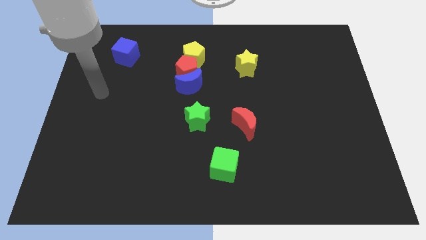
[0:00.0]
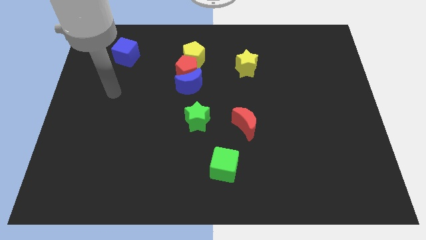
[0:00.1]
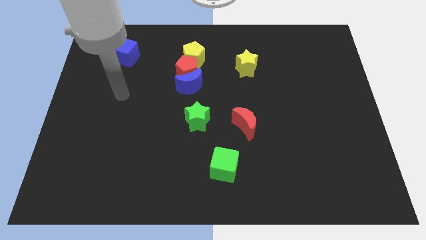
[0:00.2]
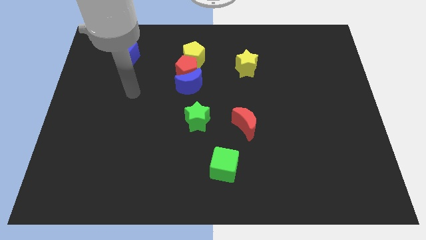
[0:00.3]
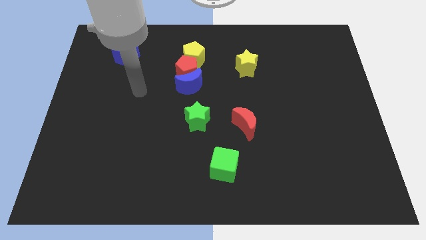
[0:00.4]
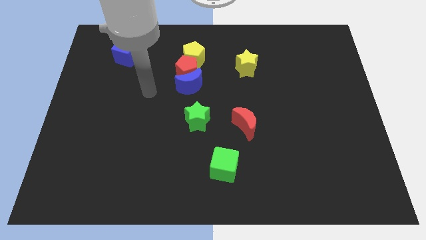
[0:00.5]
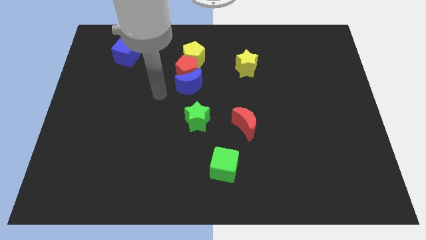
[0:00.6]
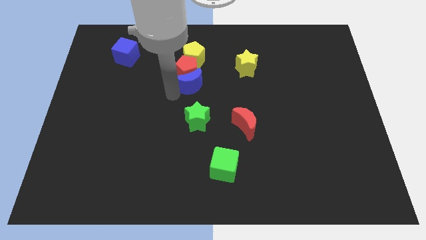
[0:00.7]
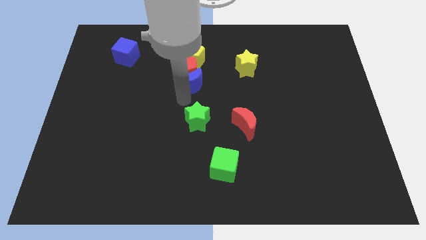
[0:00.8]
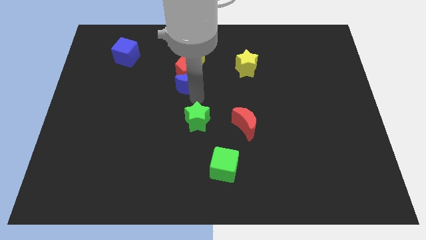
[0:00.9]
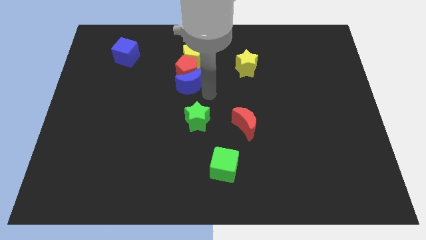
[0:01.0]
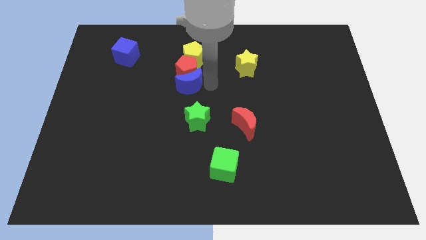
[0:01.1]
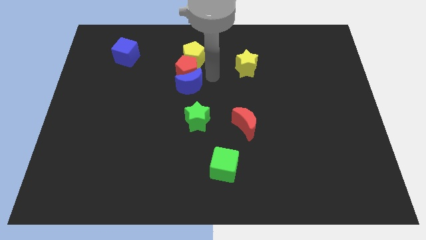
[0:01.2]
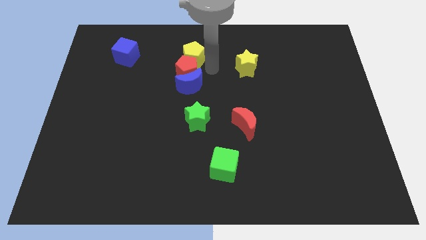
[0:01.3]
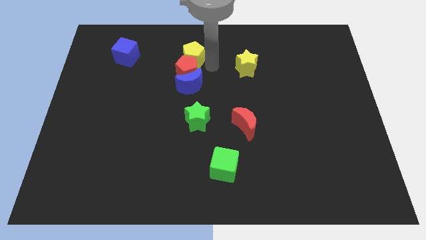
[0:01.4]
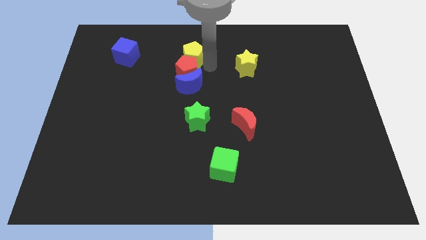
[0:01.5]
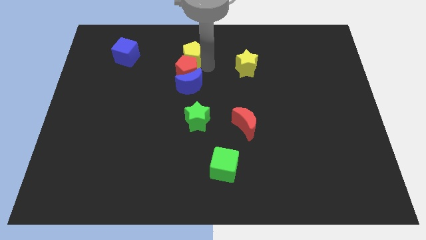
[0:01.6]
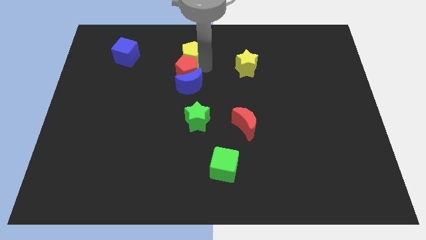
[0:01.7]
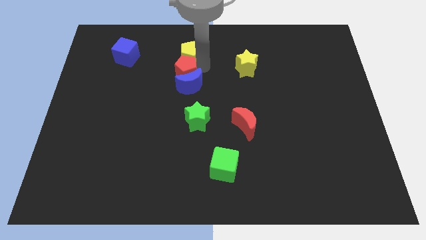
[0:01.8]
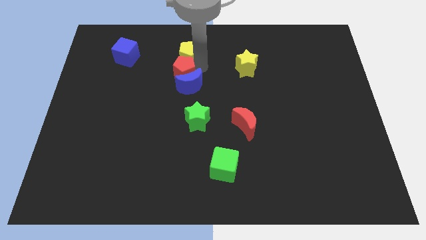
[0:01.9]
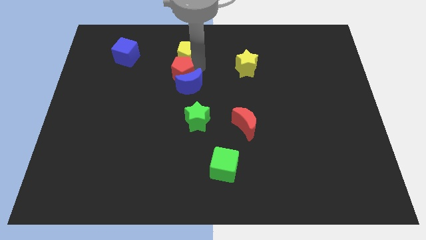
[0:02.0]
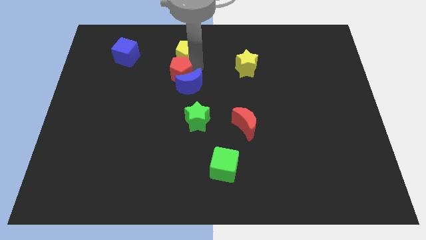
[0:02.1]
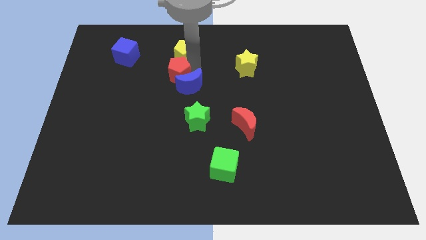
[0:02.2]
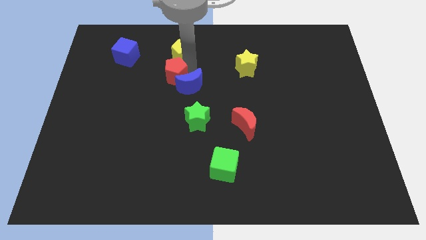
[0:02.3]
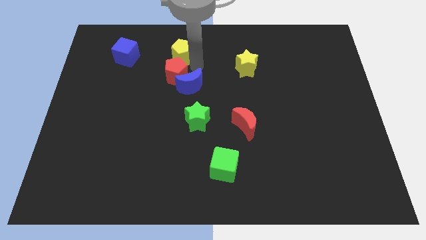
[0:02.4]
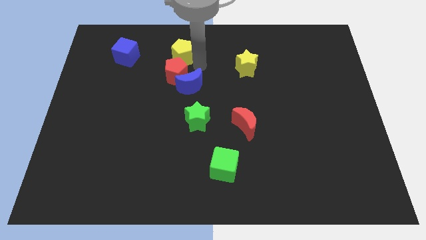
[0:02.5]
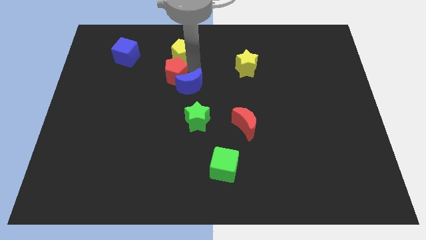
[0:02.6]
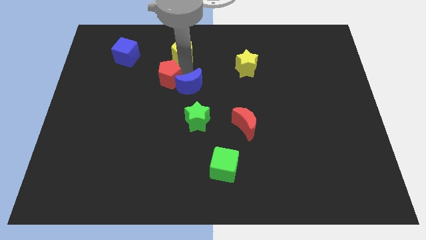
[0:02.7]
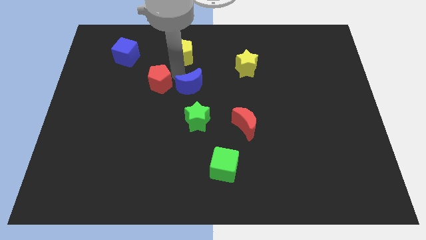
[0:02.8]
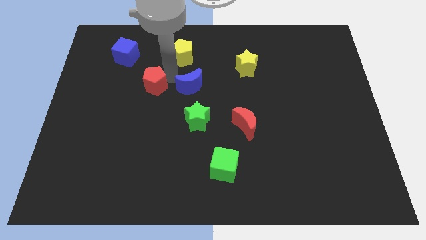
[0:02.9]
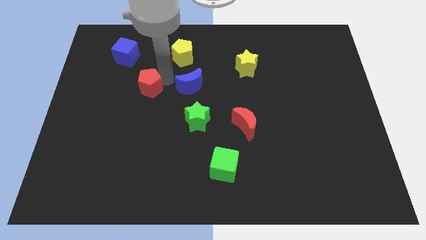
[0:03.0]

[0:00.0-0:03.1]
pull the red pentagon apart from the blue moon and yellow pentagon

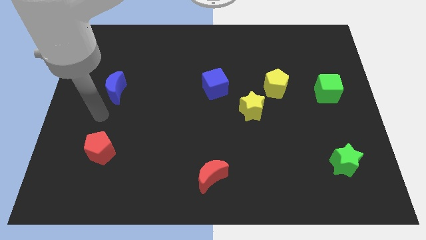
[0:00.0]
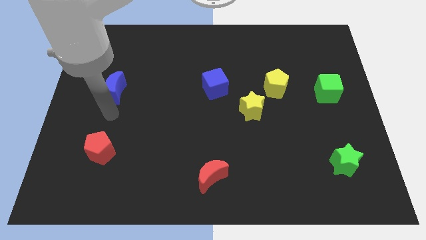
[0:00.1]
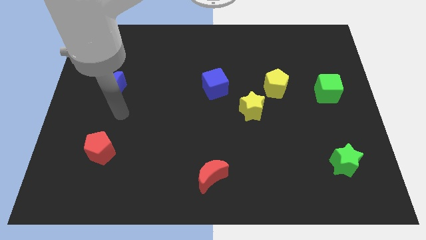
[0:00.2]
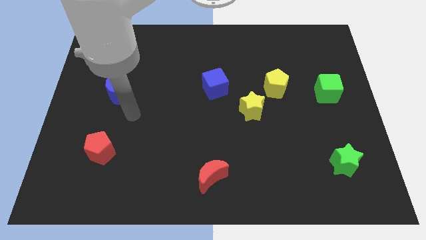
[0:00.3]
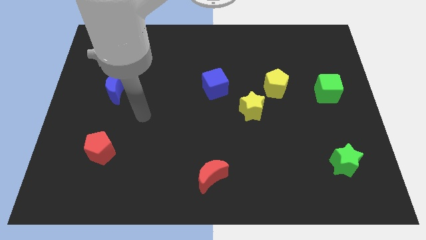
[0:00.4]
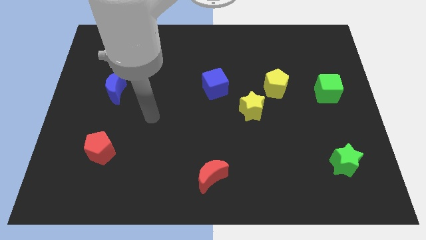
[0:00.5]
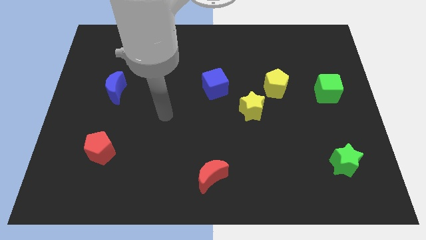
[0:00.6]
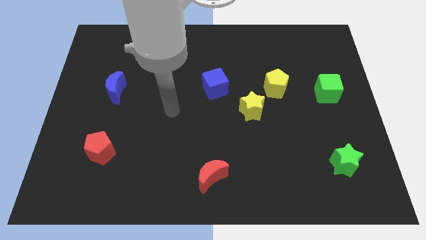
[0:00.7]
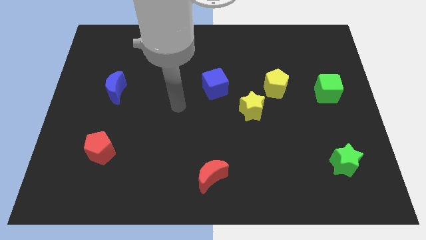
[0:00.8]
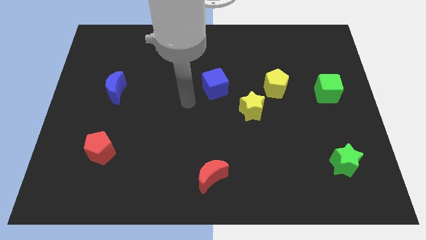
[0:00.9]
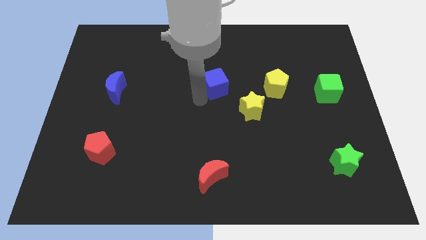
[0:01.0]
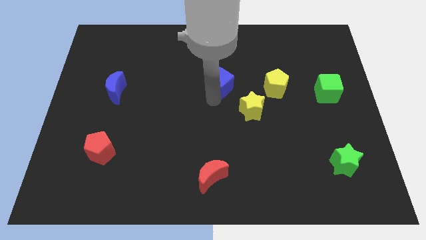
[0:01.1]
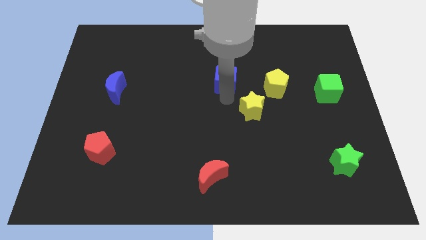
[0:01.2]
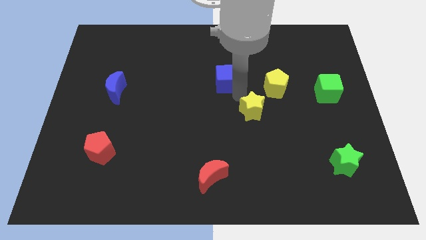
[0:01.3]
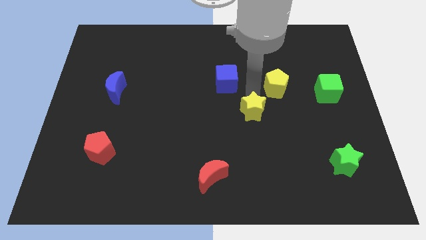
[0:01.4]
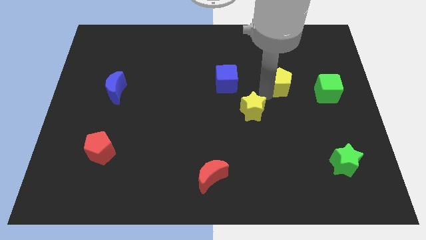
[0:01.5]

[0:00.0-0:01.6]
pull the yellow star apart from the yellow pentagon

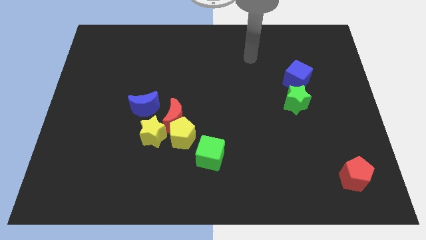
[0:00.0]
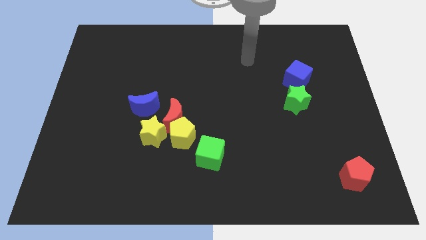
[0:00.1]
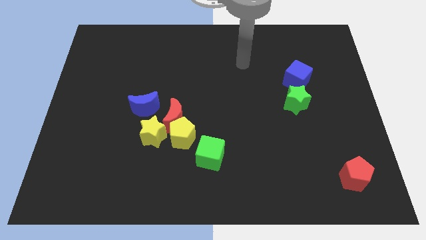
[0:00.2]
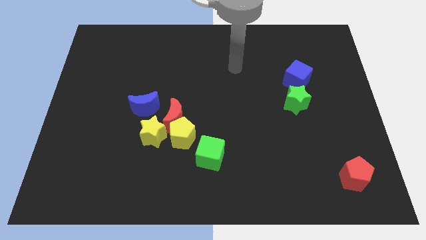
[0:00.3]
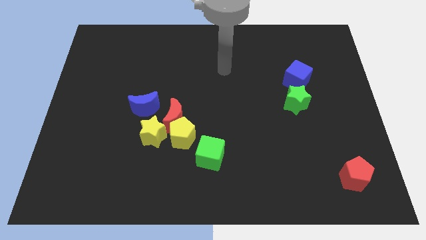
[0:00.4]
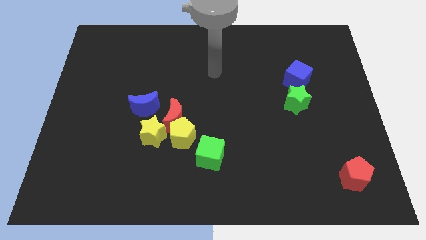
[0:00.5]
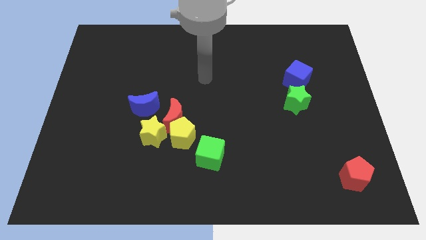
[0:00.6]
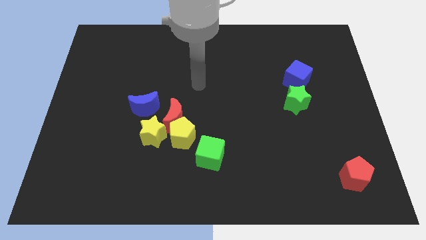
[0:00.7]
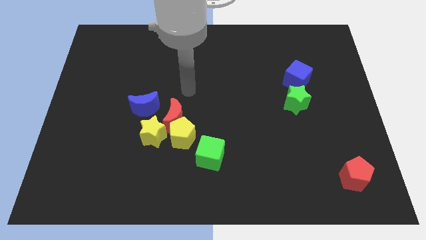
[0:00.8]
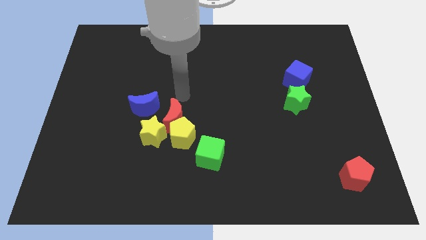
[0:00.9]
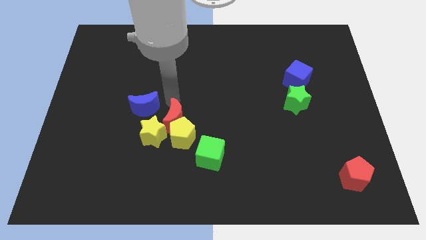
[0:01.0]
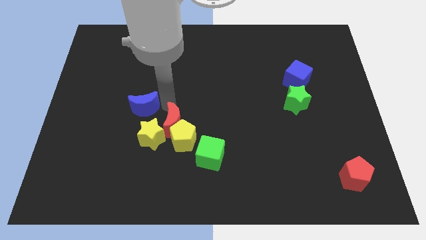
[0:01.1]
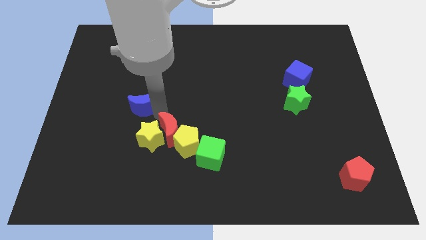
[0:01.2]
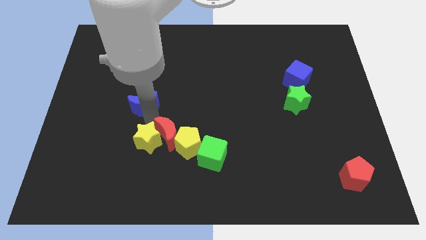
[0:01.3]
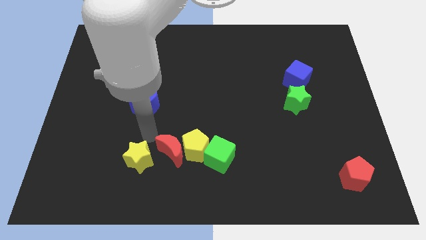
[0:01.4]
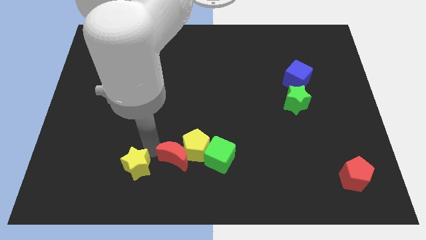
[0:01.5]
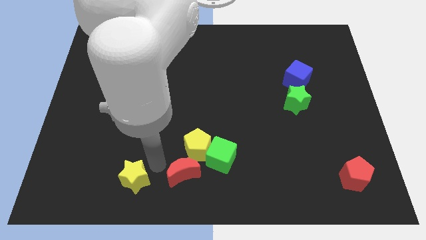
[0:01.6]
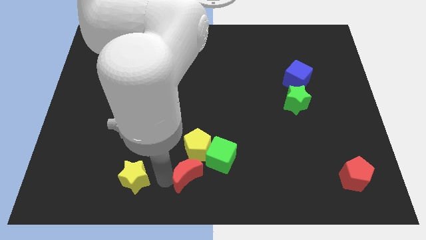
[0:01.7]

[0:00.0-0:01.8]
separate the red moon from the yellow pentagon, yellow star, and blue moon

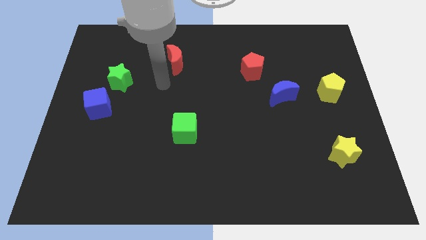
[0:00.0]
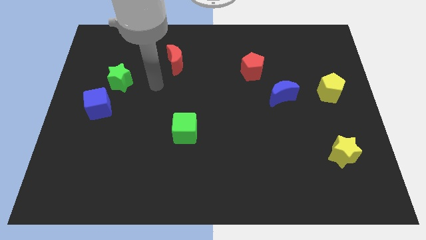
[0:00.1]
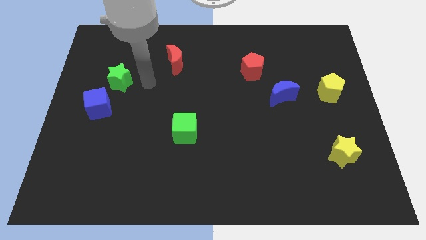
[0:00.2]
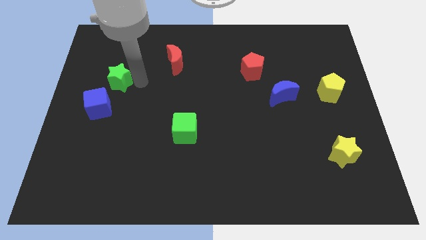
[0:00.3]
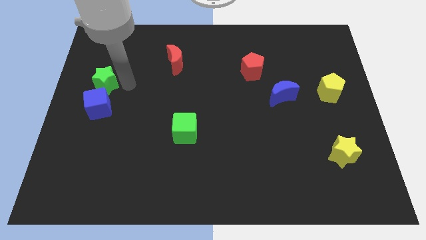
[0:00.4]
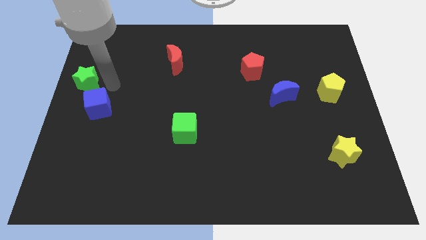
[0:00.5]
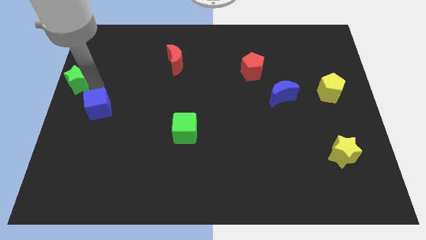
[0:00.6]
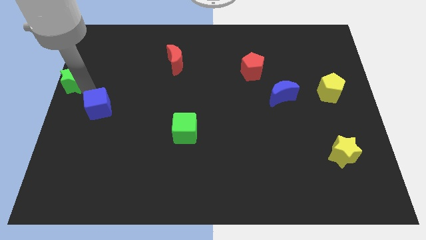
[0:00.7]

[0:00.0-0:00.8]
separate the blue cube from the green star

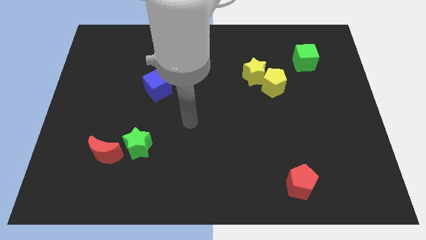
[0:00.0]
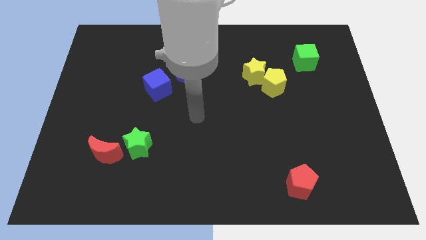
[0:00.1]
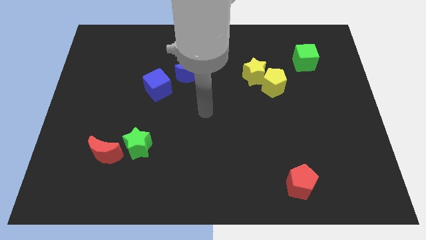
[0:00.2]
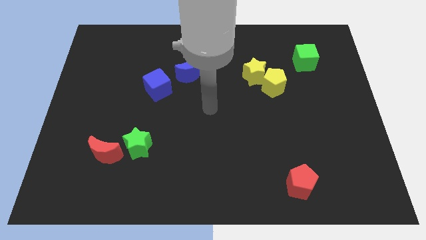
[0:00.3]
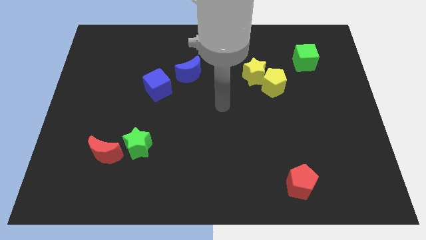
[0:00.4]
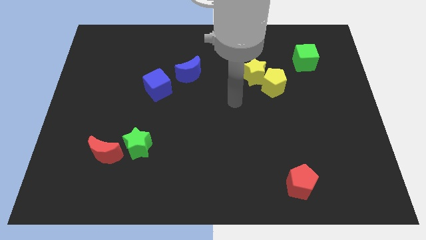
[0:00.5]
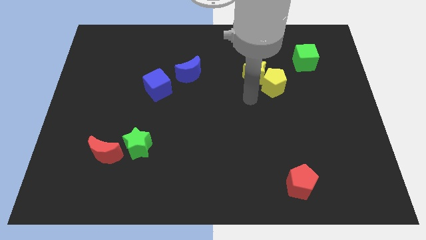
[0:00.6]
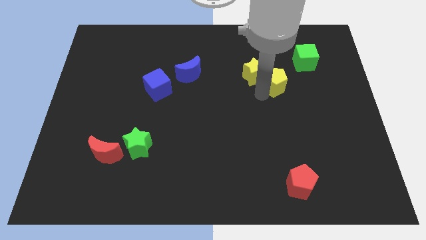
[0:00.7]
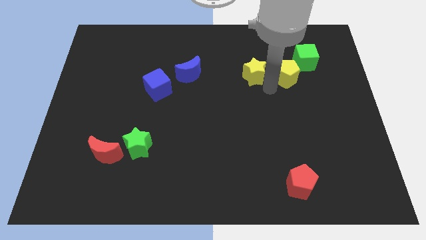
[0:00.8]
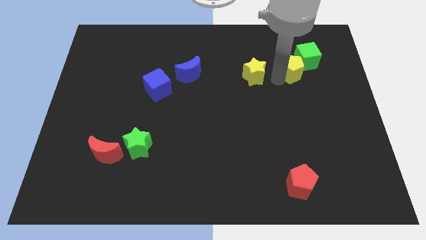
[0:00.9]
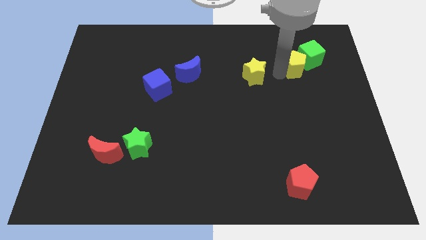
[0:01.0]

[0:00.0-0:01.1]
separate the yellow star from the yellow pentagon

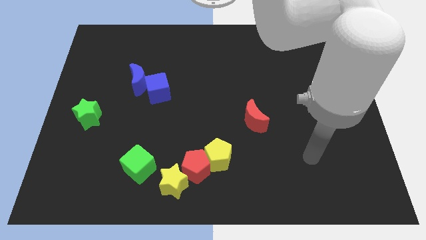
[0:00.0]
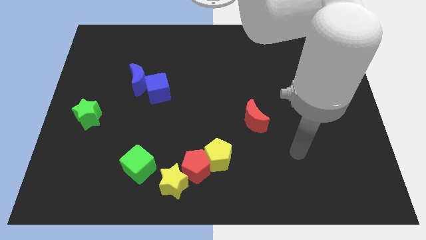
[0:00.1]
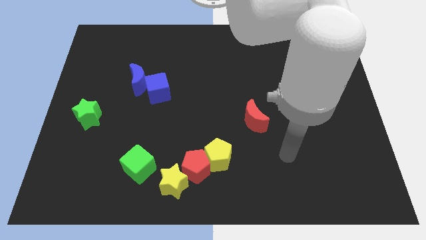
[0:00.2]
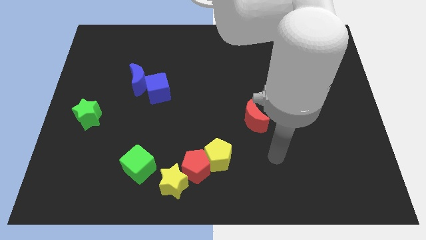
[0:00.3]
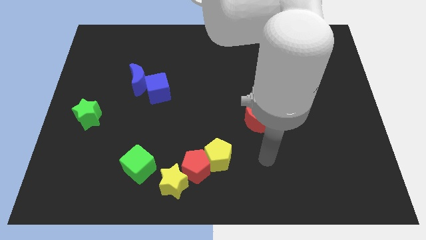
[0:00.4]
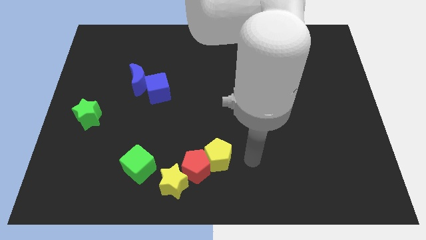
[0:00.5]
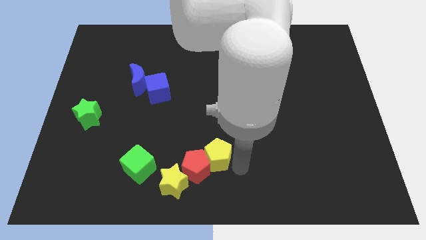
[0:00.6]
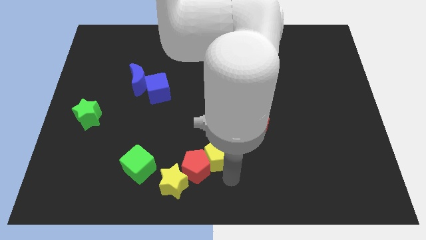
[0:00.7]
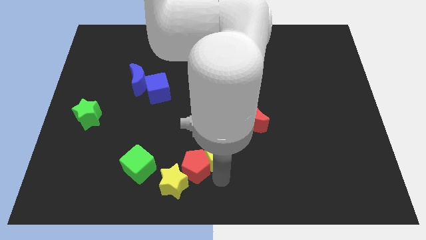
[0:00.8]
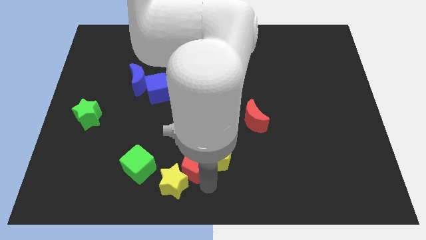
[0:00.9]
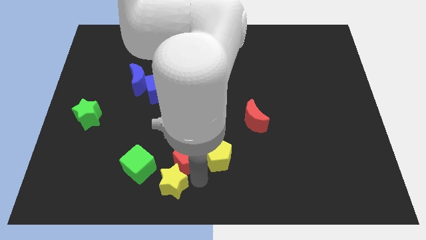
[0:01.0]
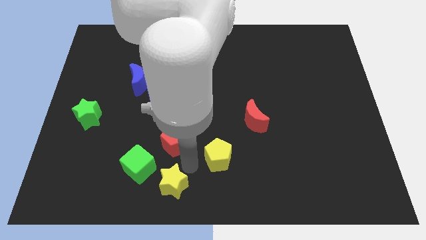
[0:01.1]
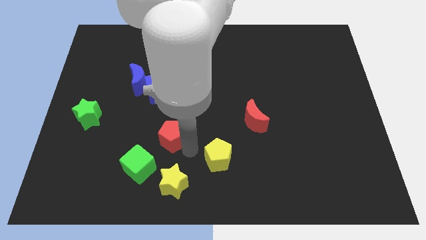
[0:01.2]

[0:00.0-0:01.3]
separate the yellow pentagon from the red pentagon
